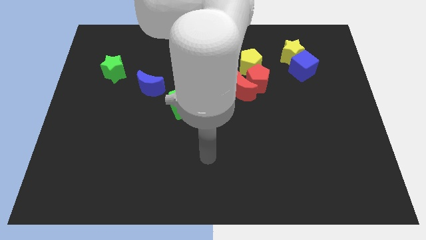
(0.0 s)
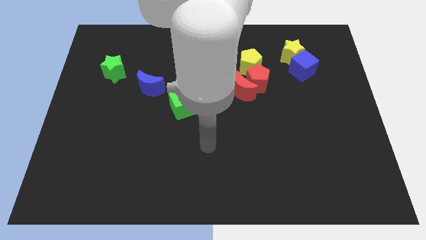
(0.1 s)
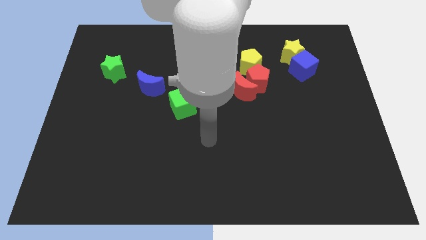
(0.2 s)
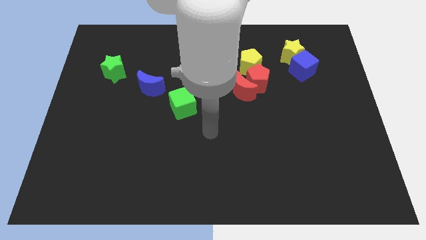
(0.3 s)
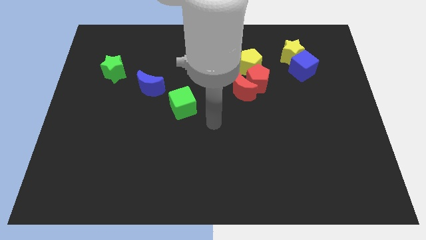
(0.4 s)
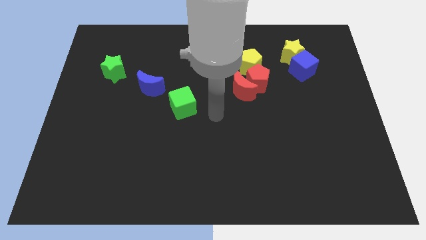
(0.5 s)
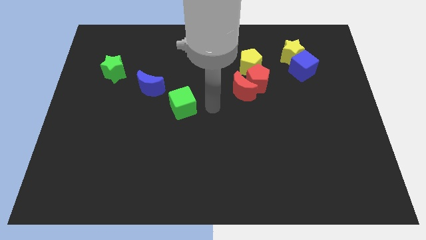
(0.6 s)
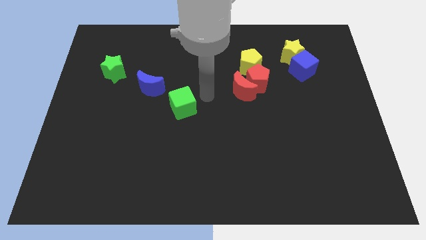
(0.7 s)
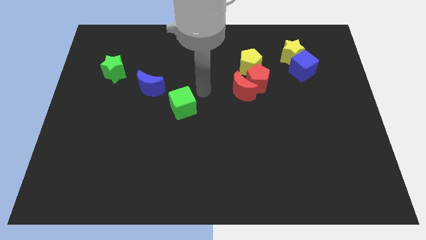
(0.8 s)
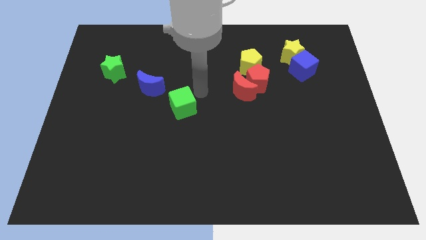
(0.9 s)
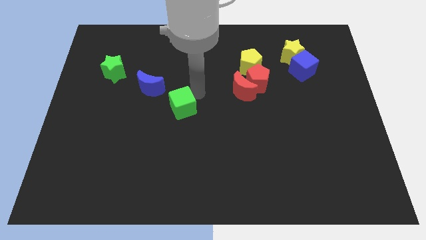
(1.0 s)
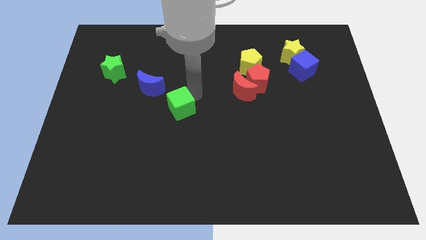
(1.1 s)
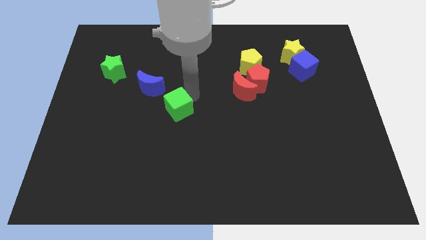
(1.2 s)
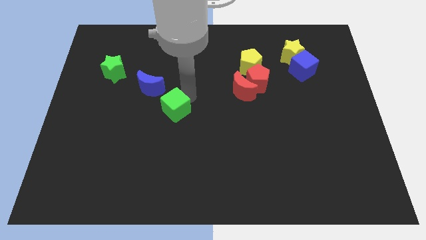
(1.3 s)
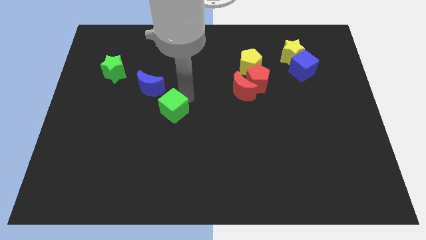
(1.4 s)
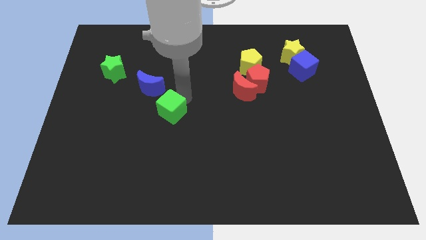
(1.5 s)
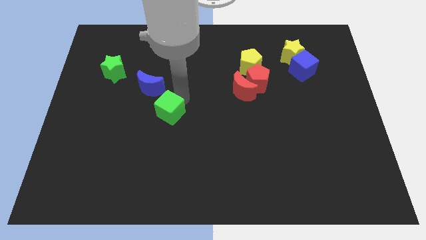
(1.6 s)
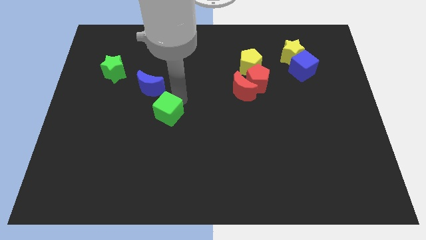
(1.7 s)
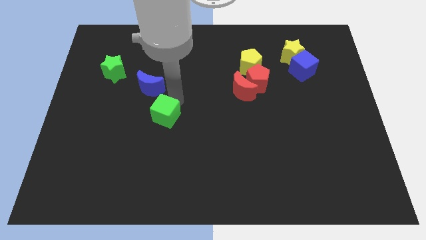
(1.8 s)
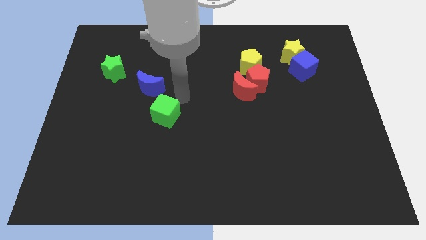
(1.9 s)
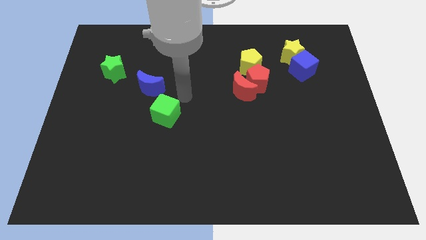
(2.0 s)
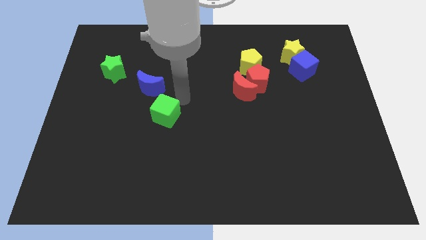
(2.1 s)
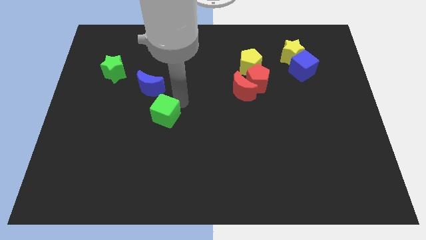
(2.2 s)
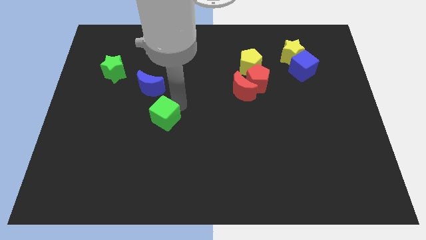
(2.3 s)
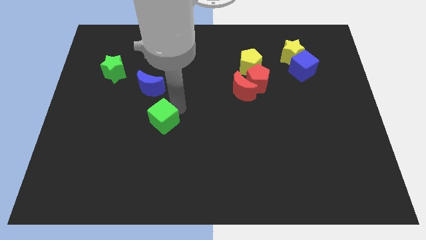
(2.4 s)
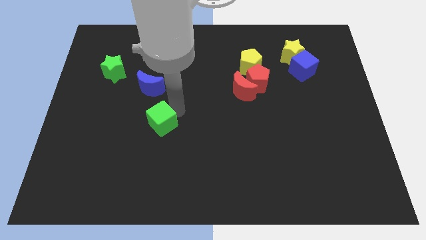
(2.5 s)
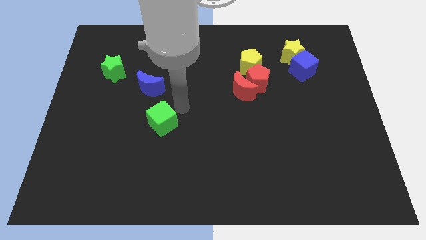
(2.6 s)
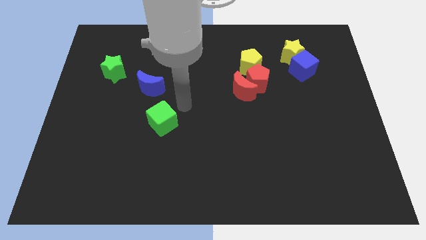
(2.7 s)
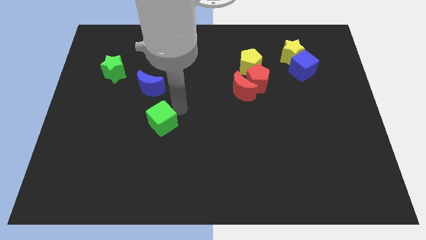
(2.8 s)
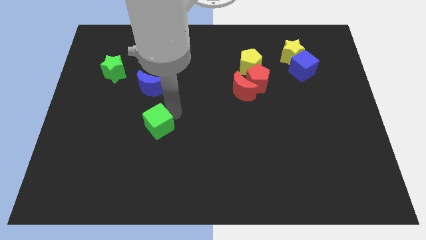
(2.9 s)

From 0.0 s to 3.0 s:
push the green cube a little bit diagonally downwards and to the left

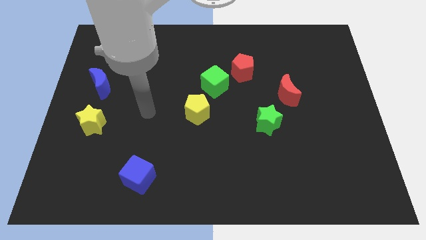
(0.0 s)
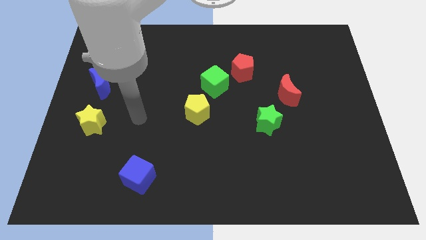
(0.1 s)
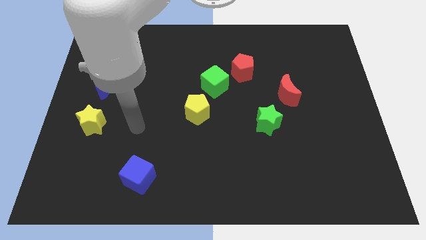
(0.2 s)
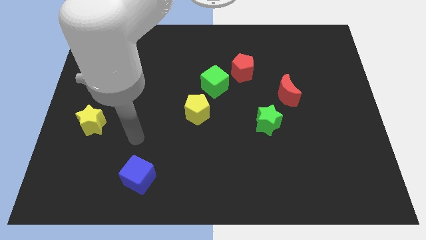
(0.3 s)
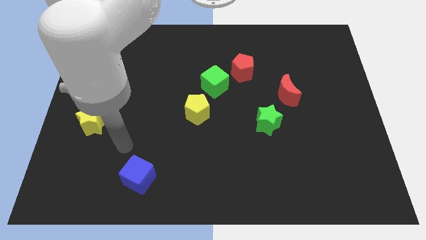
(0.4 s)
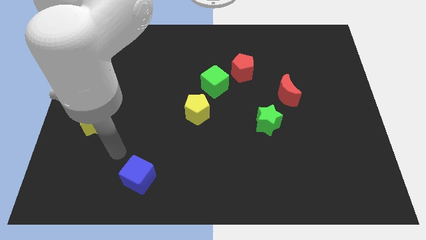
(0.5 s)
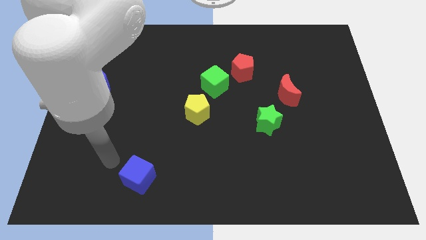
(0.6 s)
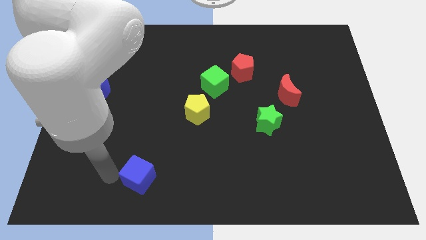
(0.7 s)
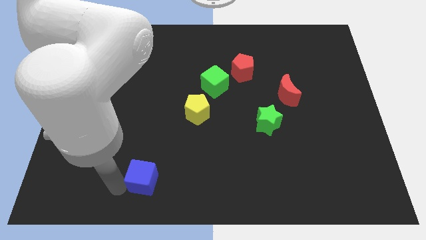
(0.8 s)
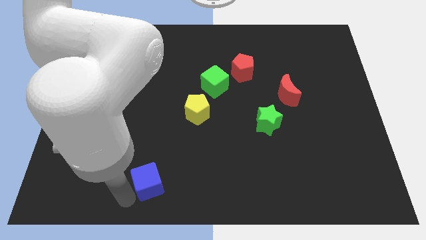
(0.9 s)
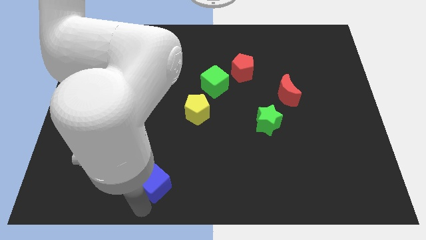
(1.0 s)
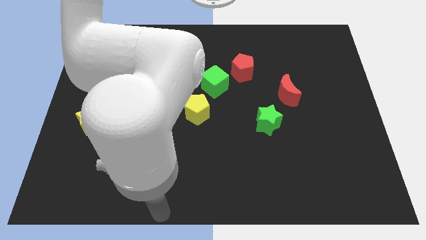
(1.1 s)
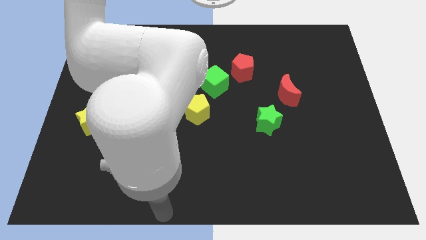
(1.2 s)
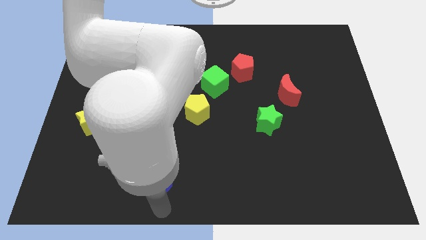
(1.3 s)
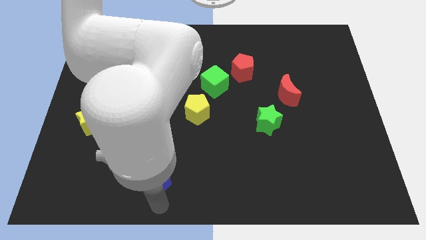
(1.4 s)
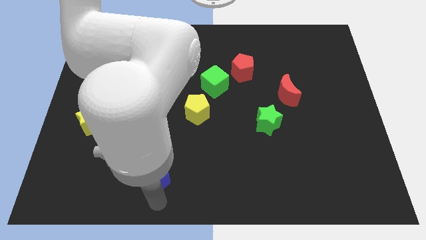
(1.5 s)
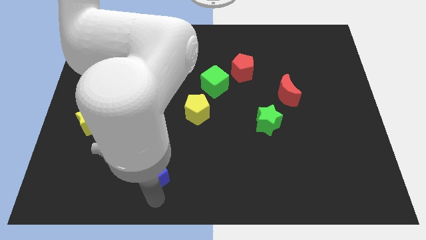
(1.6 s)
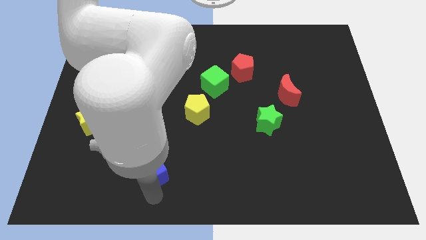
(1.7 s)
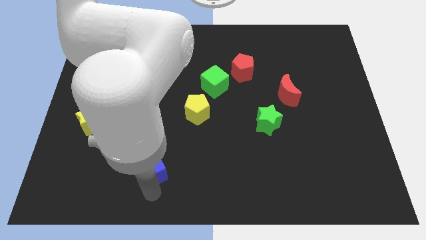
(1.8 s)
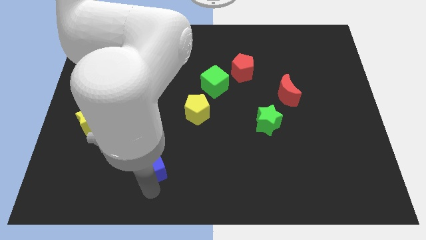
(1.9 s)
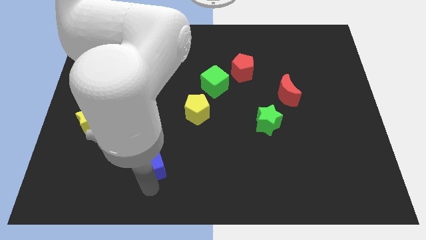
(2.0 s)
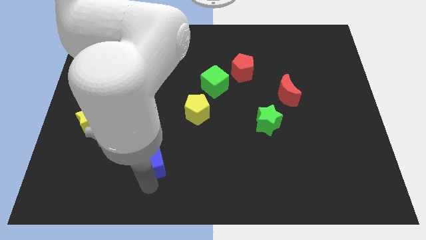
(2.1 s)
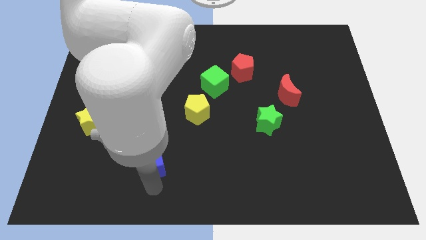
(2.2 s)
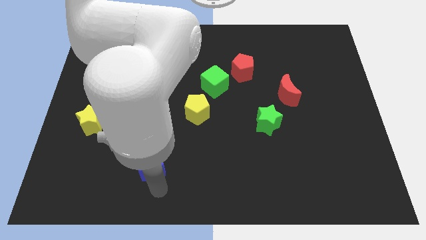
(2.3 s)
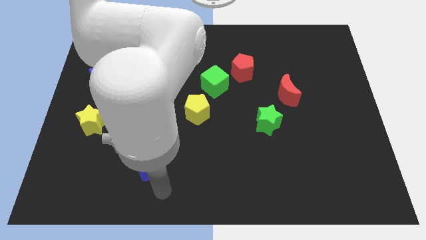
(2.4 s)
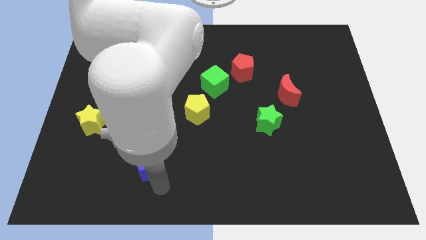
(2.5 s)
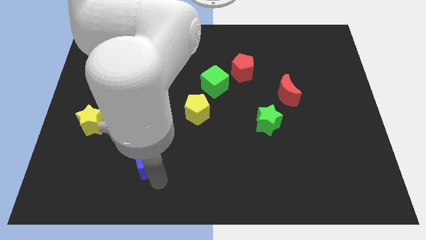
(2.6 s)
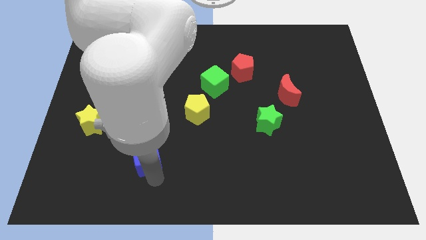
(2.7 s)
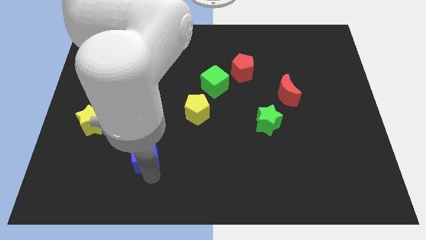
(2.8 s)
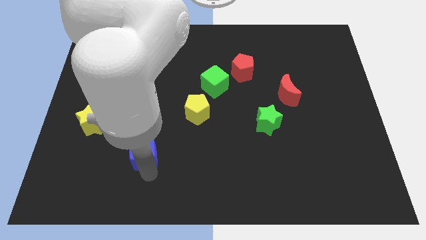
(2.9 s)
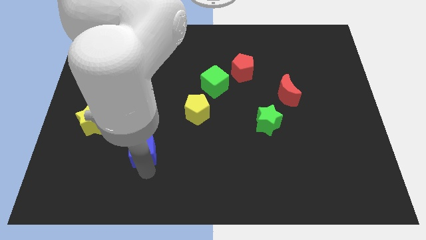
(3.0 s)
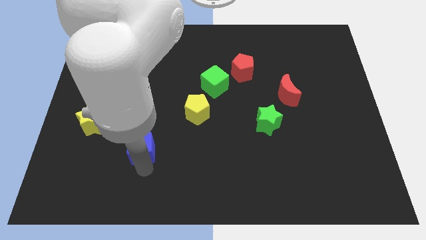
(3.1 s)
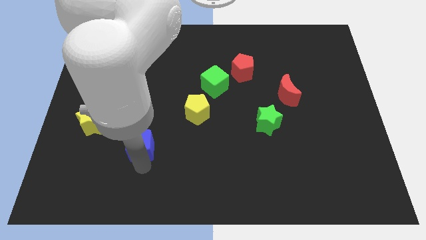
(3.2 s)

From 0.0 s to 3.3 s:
slightly slide the blue cube up

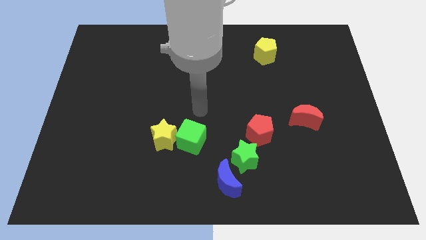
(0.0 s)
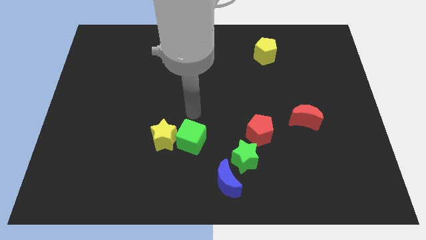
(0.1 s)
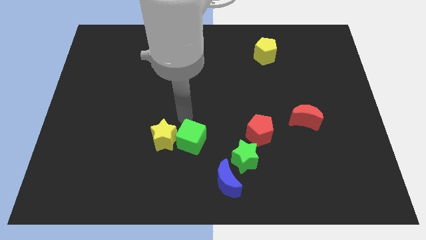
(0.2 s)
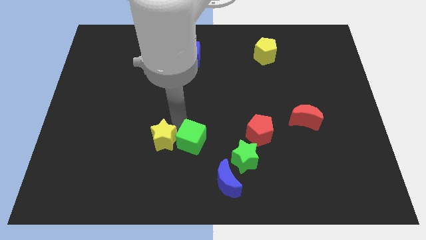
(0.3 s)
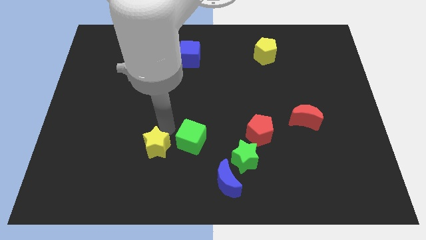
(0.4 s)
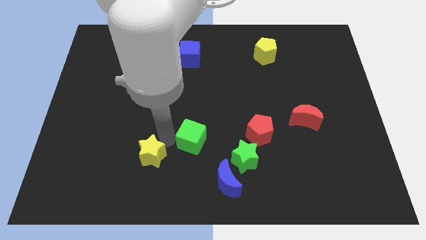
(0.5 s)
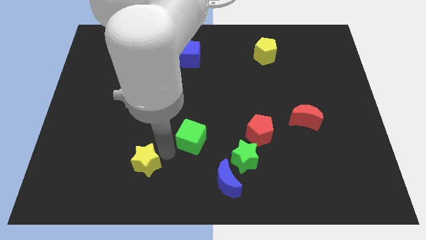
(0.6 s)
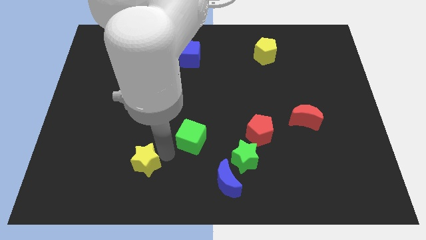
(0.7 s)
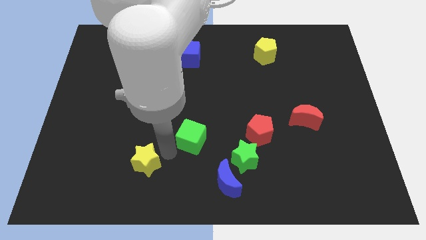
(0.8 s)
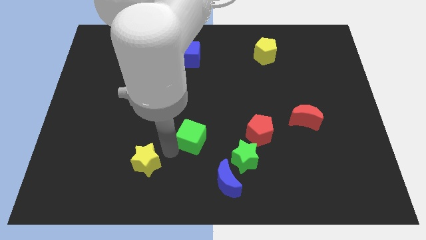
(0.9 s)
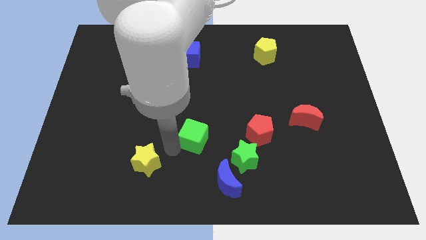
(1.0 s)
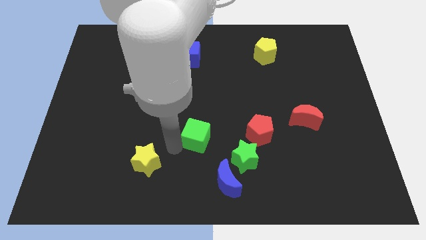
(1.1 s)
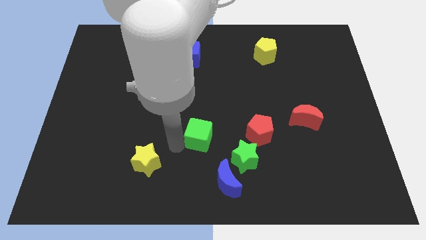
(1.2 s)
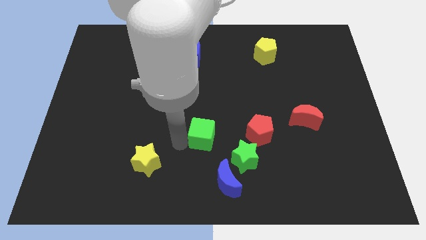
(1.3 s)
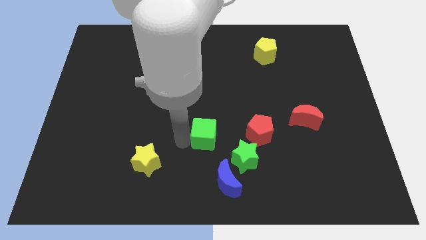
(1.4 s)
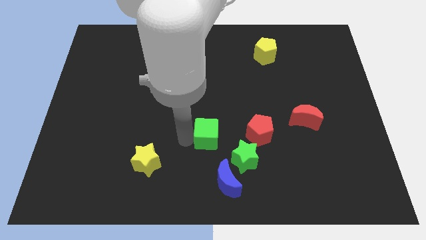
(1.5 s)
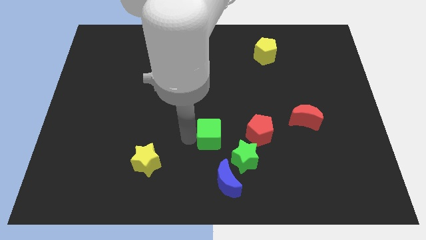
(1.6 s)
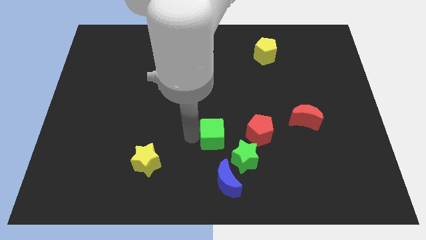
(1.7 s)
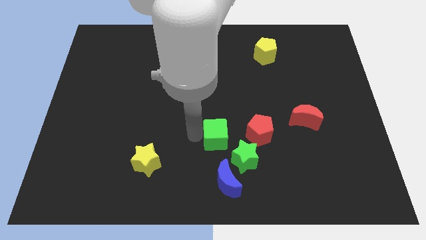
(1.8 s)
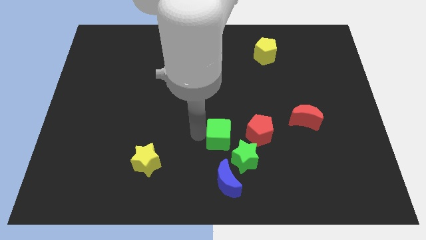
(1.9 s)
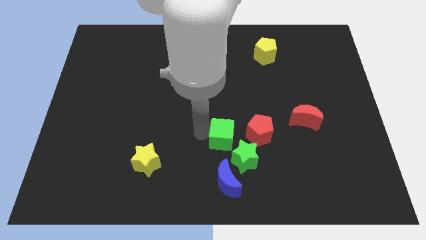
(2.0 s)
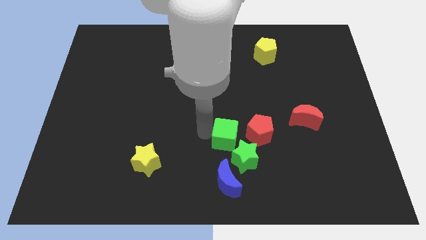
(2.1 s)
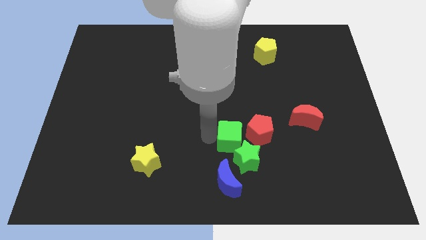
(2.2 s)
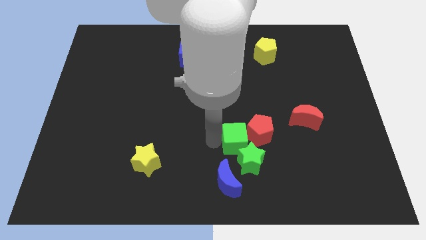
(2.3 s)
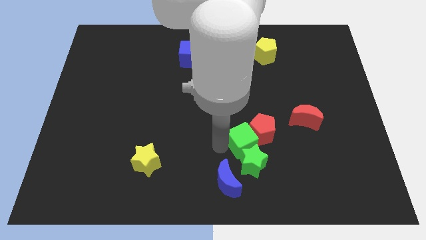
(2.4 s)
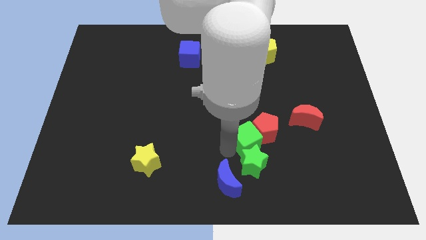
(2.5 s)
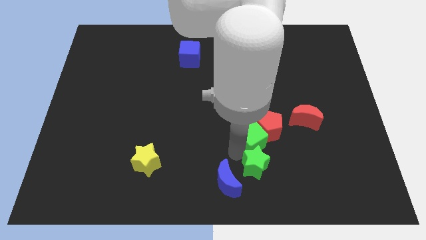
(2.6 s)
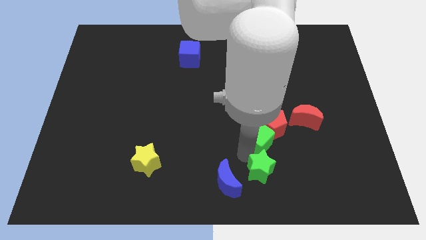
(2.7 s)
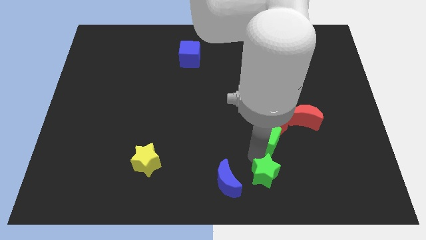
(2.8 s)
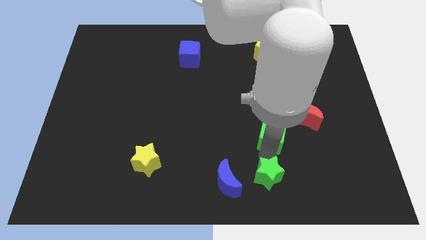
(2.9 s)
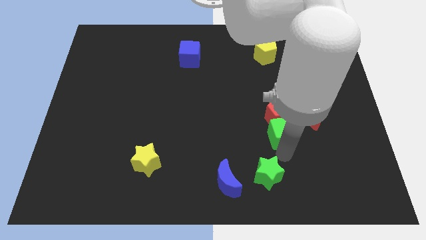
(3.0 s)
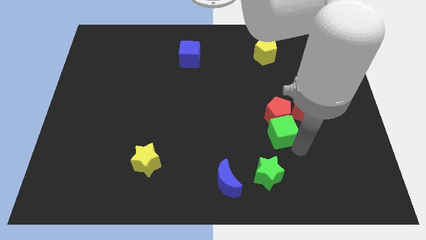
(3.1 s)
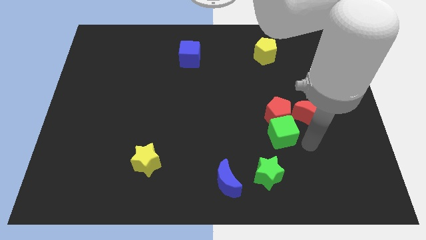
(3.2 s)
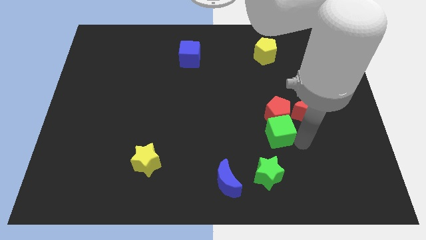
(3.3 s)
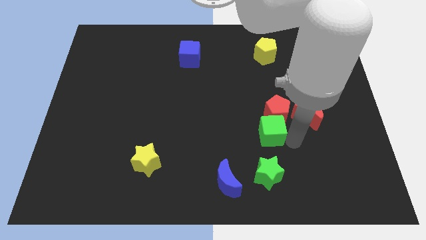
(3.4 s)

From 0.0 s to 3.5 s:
move the green cube slightly upwards and to the right
